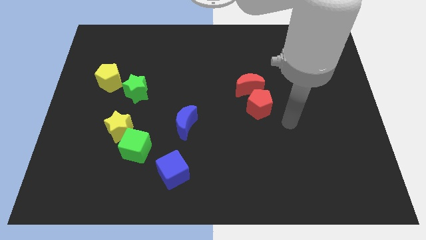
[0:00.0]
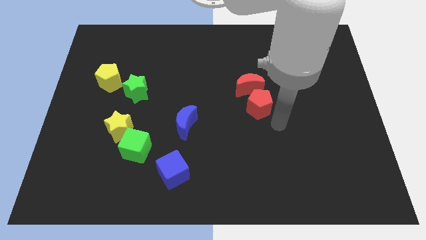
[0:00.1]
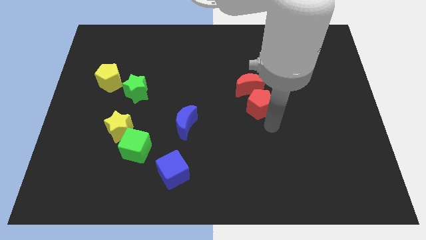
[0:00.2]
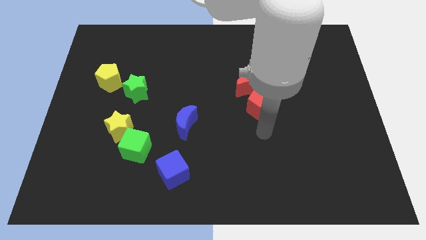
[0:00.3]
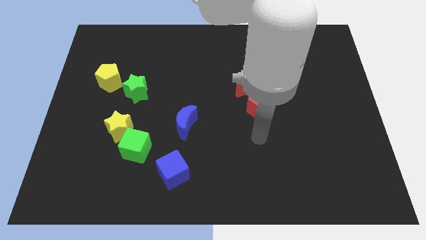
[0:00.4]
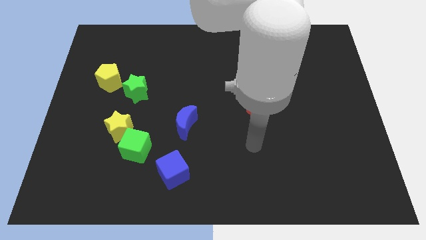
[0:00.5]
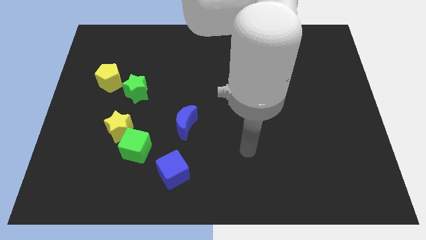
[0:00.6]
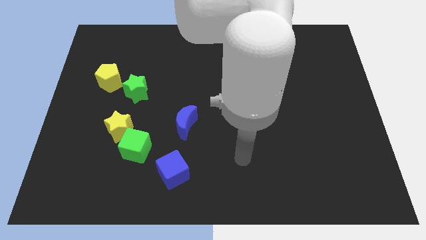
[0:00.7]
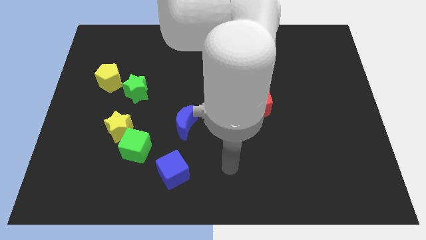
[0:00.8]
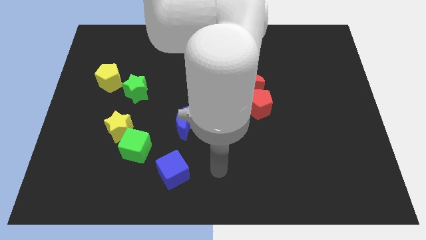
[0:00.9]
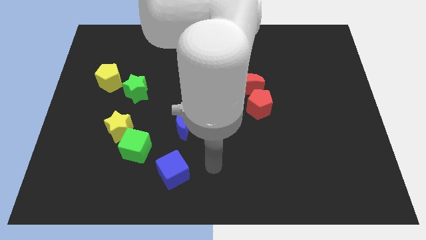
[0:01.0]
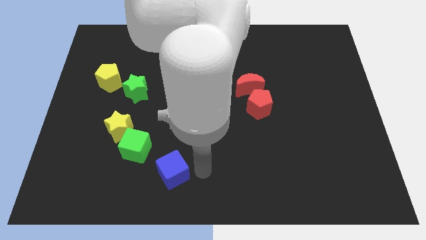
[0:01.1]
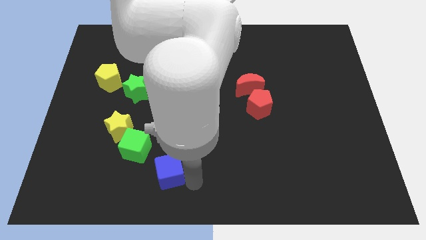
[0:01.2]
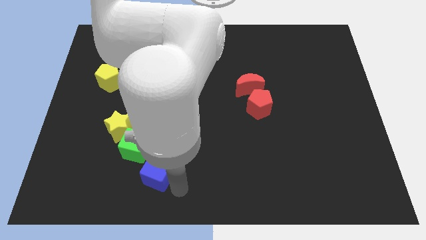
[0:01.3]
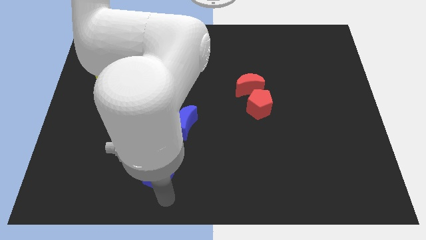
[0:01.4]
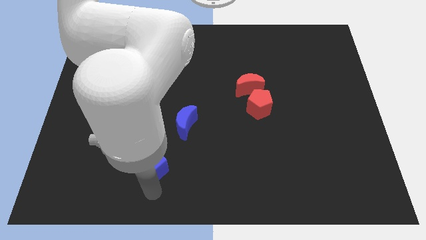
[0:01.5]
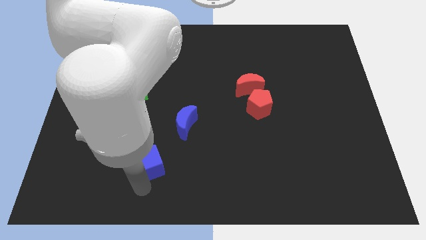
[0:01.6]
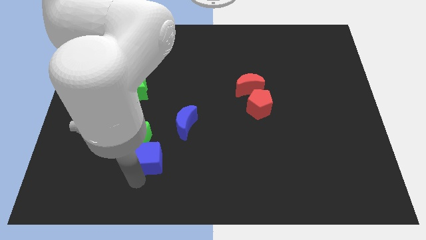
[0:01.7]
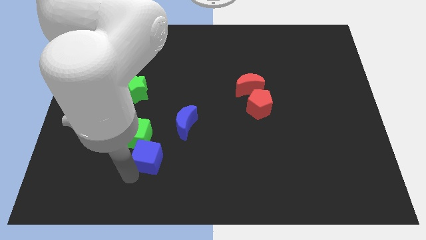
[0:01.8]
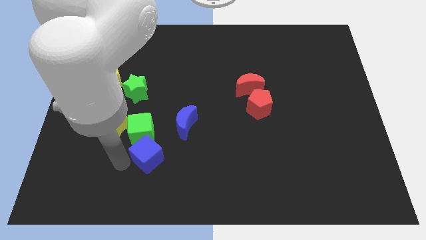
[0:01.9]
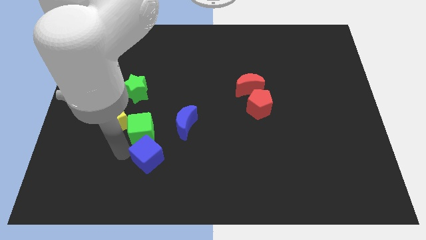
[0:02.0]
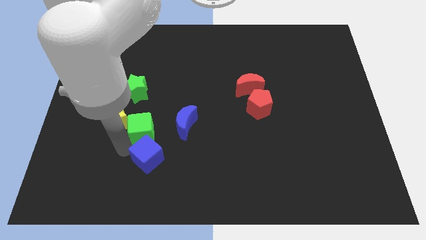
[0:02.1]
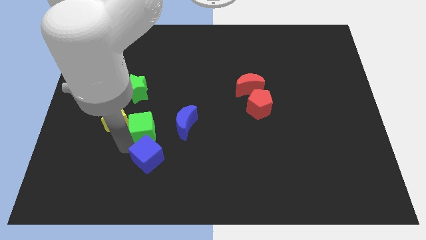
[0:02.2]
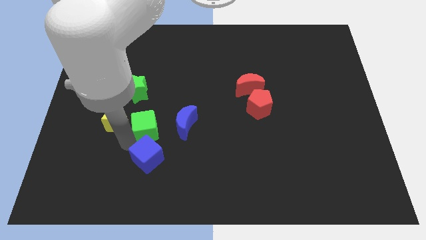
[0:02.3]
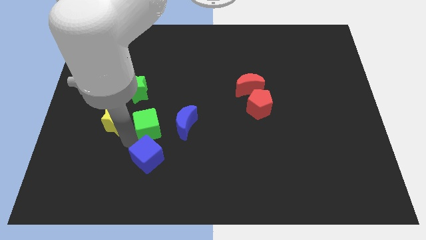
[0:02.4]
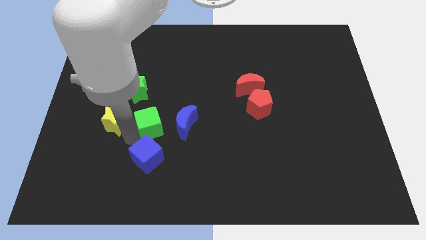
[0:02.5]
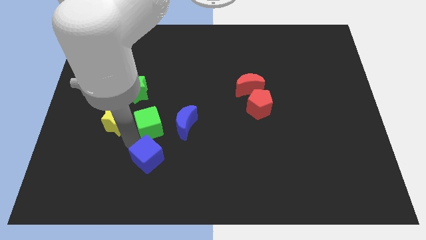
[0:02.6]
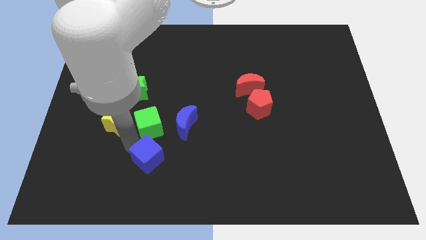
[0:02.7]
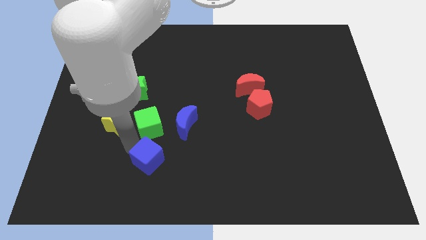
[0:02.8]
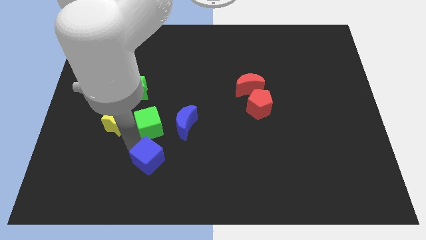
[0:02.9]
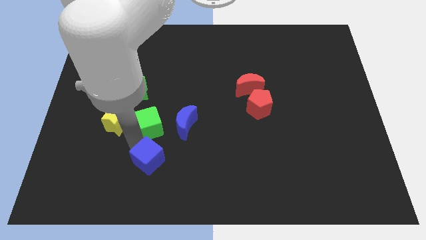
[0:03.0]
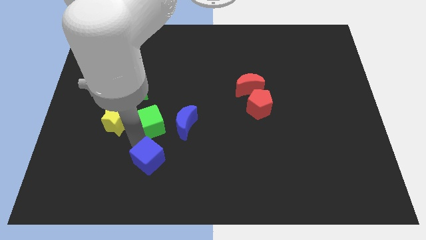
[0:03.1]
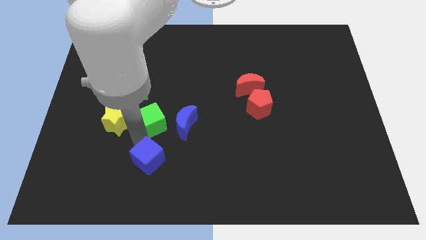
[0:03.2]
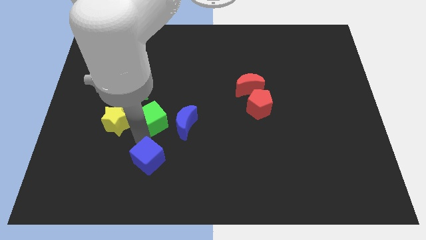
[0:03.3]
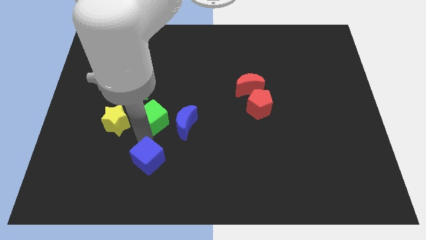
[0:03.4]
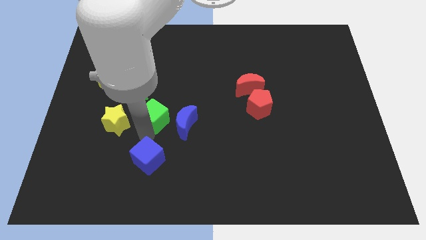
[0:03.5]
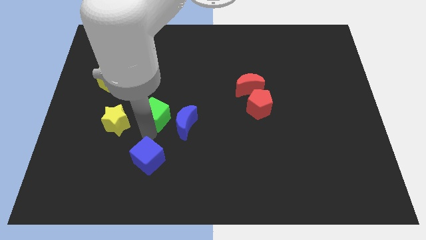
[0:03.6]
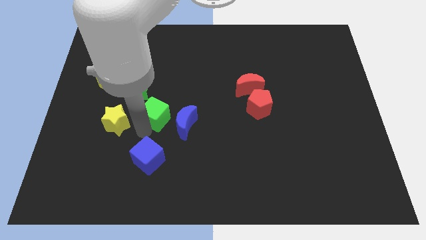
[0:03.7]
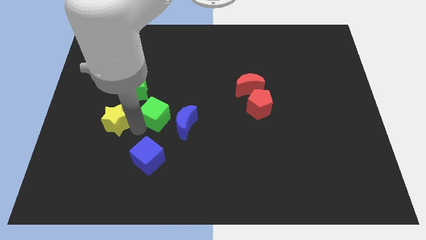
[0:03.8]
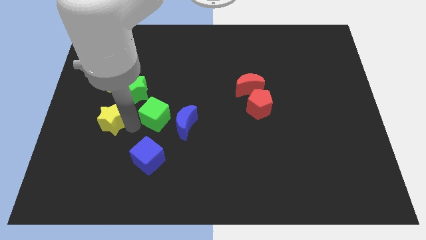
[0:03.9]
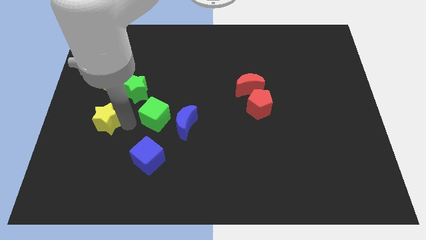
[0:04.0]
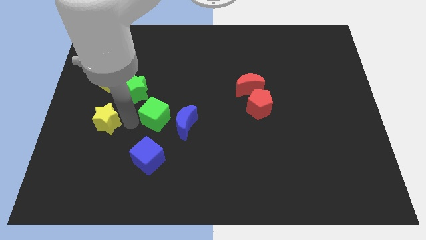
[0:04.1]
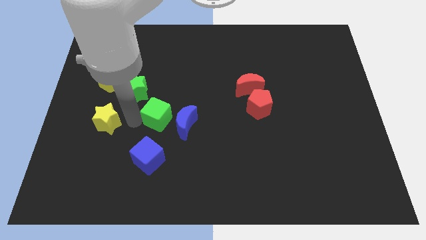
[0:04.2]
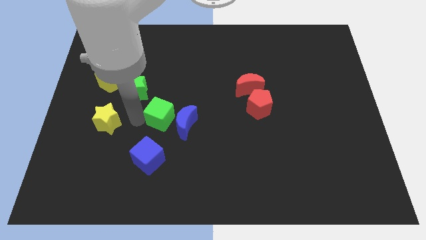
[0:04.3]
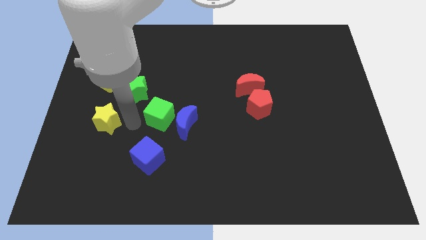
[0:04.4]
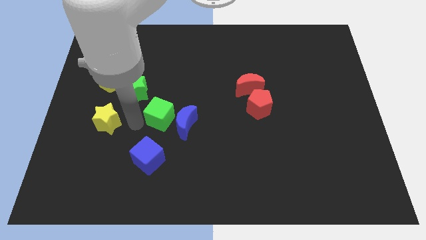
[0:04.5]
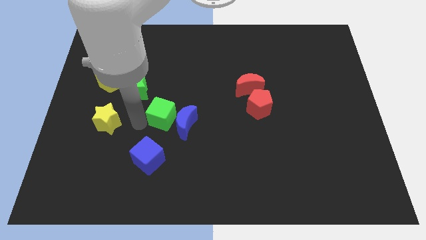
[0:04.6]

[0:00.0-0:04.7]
move the green cube to the middle

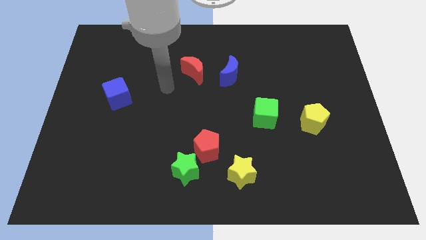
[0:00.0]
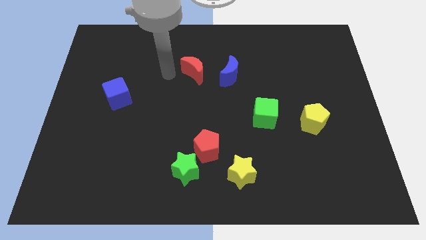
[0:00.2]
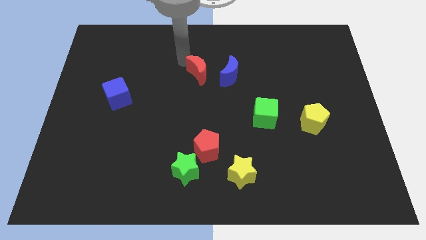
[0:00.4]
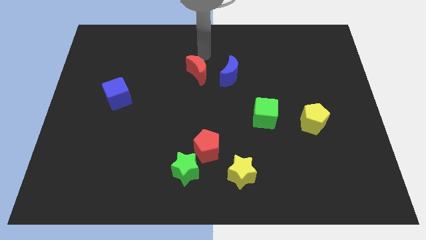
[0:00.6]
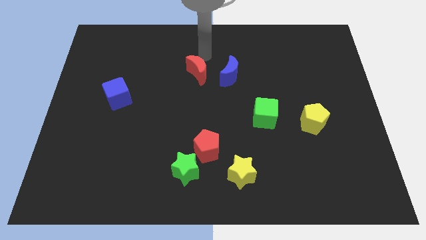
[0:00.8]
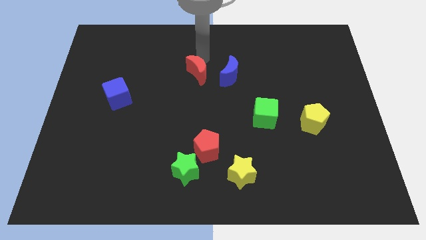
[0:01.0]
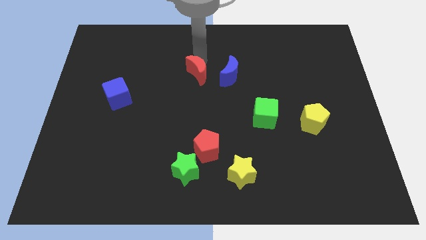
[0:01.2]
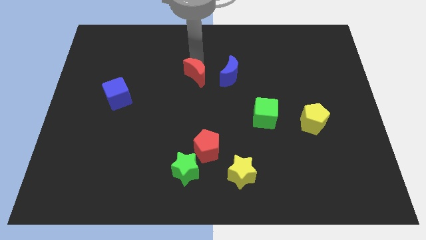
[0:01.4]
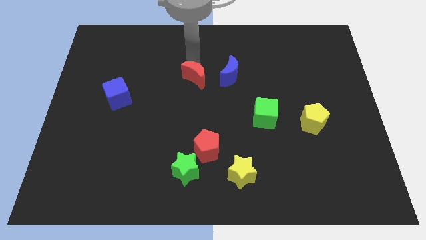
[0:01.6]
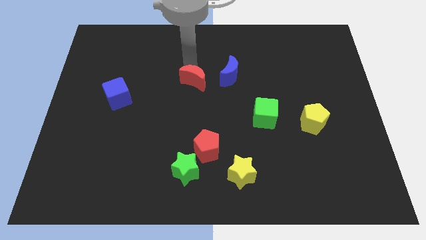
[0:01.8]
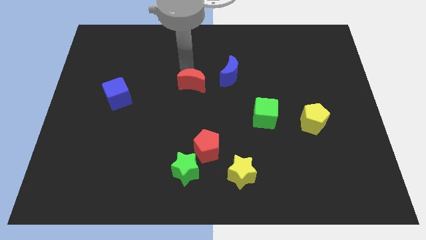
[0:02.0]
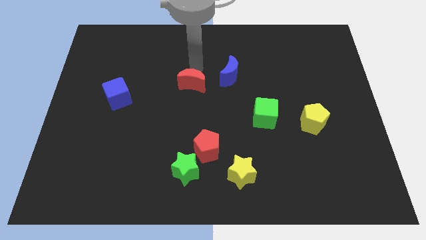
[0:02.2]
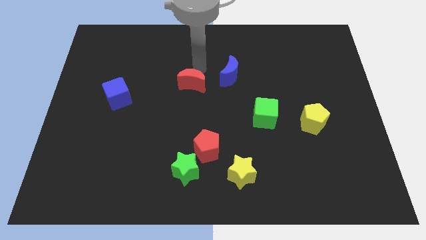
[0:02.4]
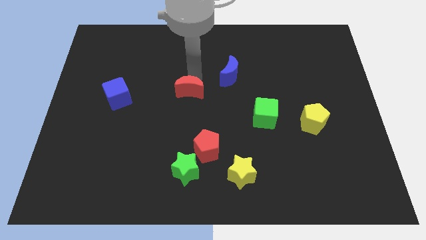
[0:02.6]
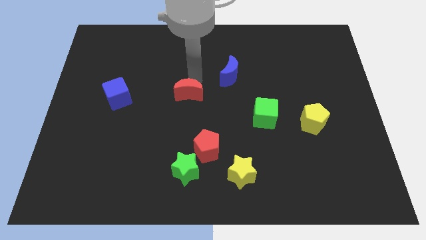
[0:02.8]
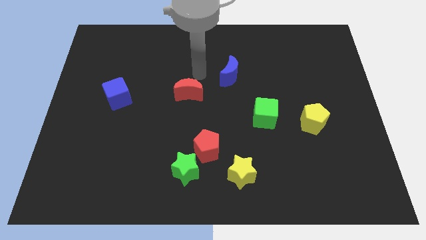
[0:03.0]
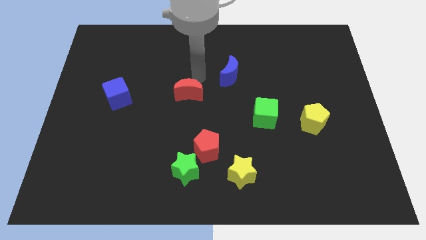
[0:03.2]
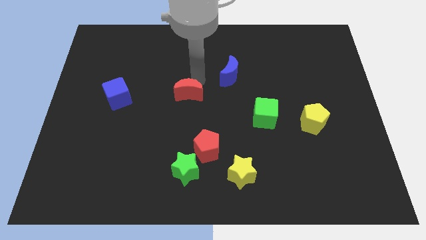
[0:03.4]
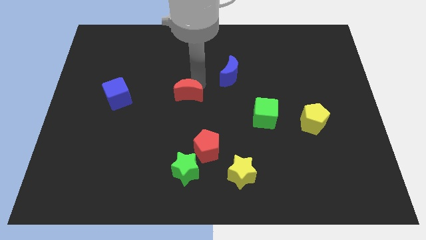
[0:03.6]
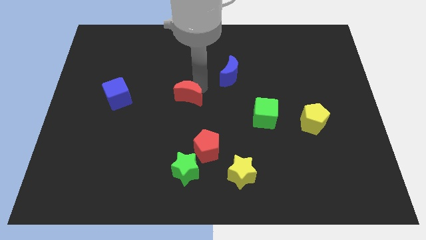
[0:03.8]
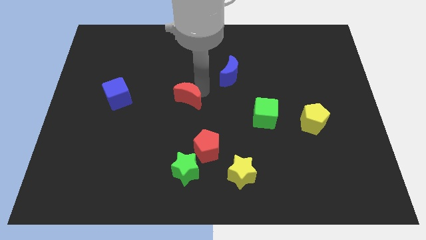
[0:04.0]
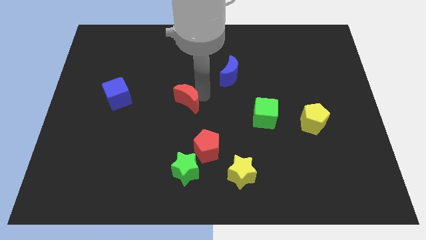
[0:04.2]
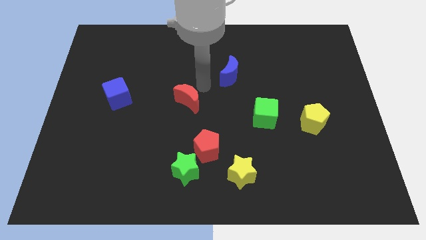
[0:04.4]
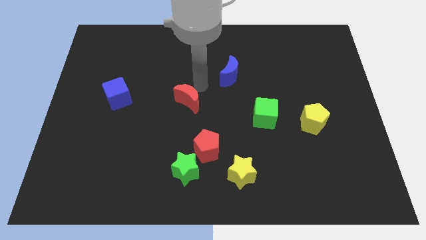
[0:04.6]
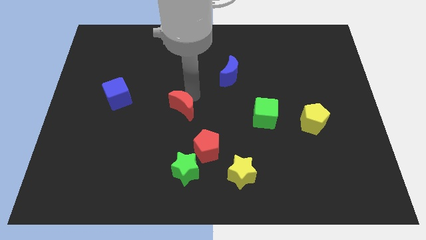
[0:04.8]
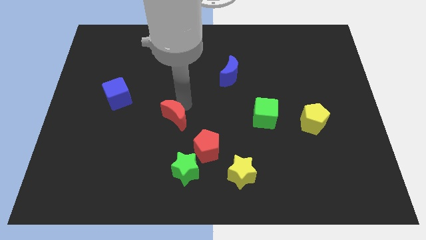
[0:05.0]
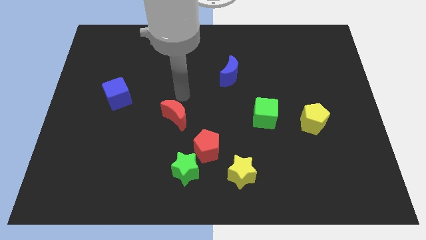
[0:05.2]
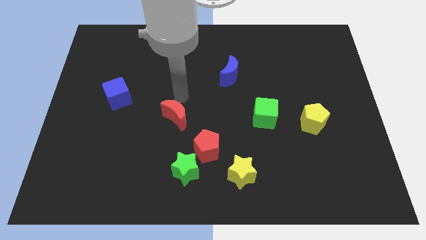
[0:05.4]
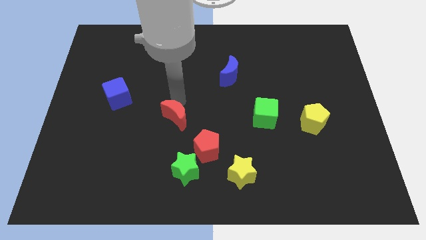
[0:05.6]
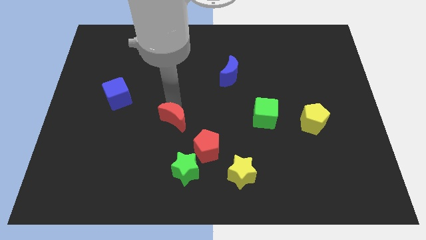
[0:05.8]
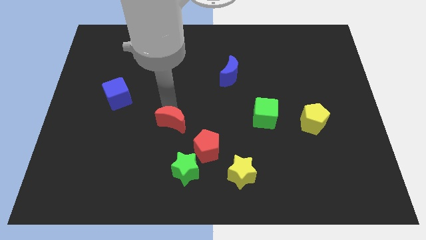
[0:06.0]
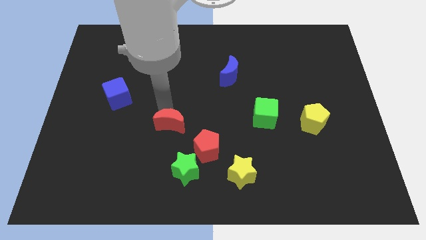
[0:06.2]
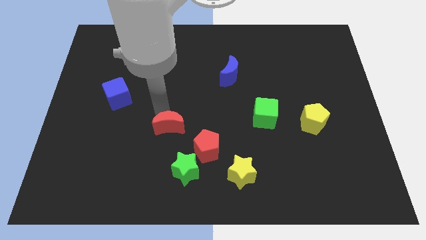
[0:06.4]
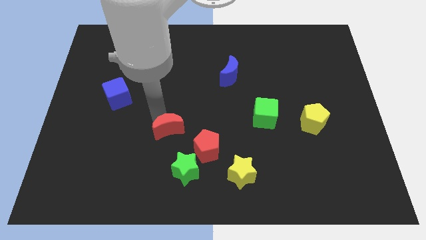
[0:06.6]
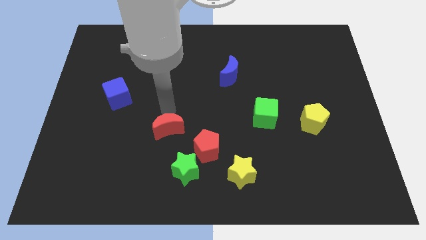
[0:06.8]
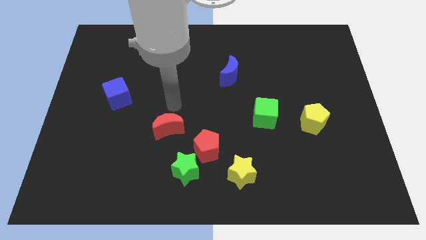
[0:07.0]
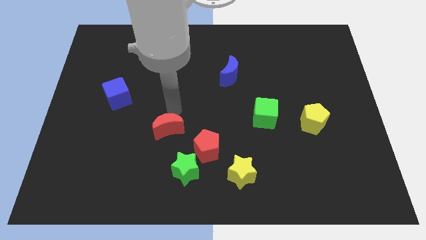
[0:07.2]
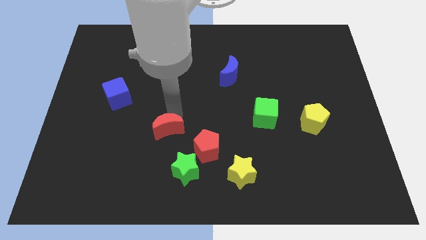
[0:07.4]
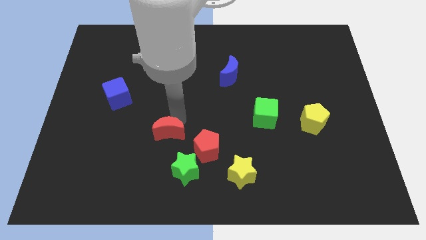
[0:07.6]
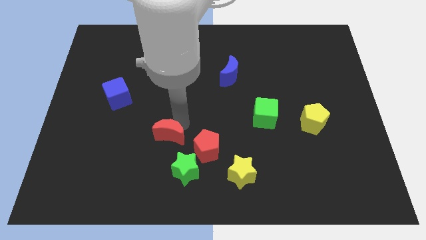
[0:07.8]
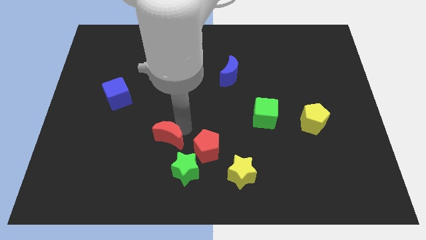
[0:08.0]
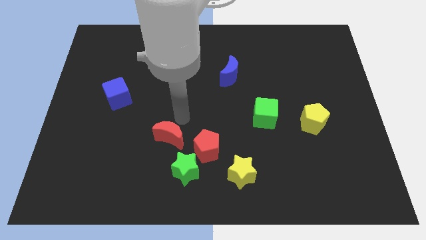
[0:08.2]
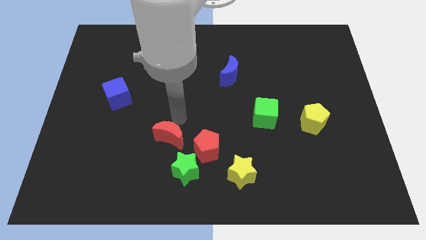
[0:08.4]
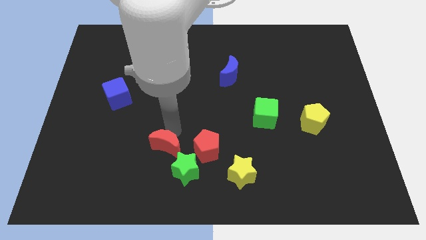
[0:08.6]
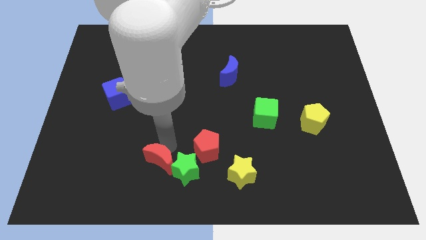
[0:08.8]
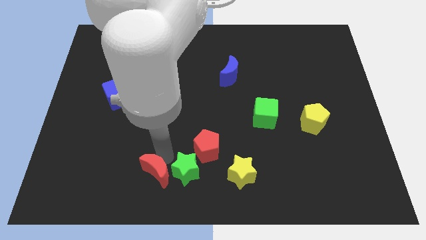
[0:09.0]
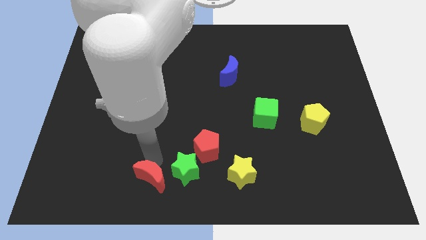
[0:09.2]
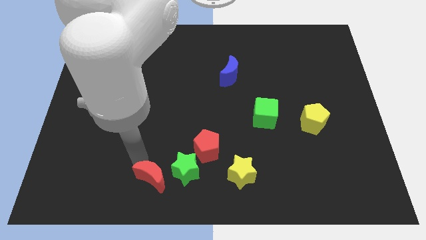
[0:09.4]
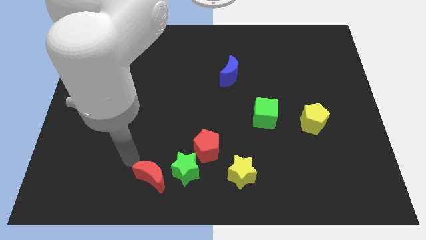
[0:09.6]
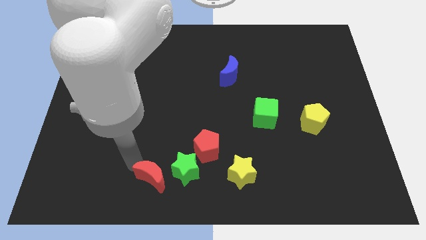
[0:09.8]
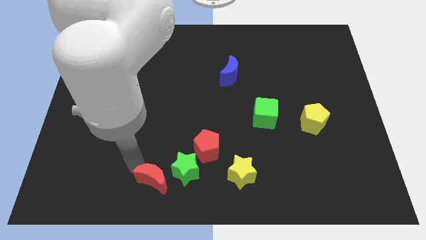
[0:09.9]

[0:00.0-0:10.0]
push the red moon to the bottom side
